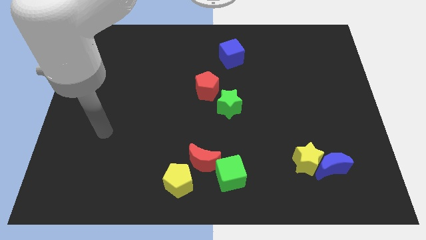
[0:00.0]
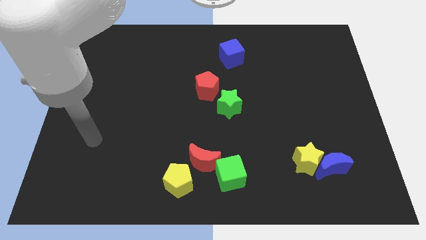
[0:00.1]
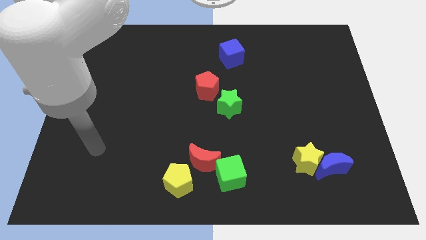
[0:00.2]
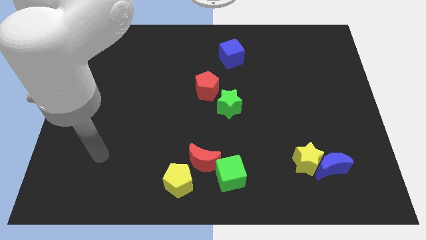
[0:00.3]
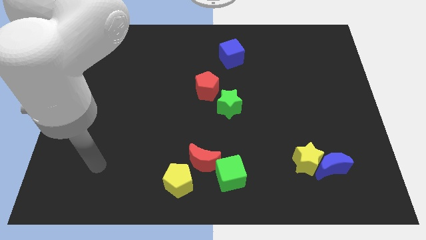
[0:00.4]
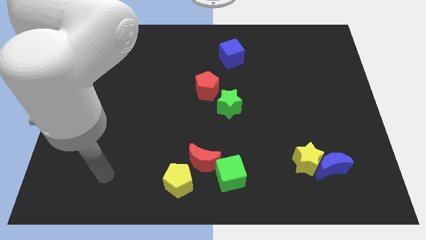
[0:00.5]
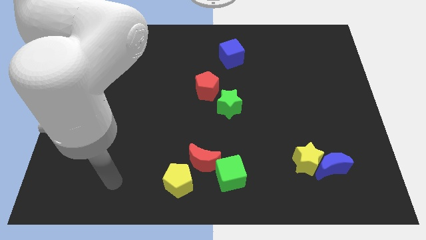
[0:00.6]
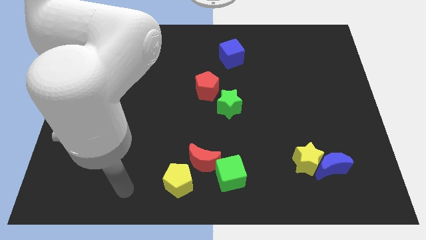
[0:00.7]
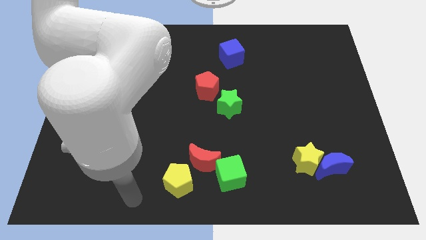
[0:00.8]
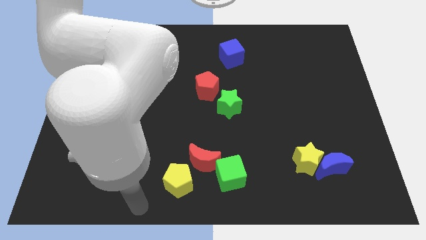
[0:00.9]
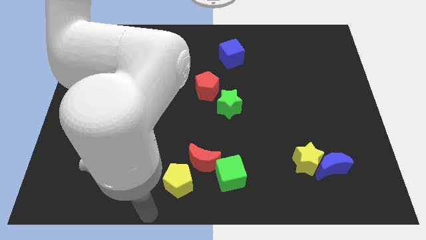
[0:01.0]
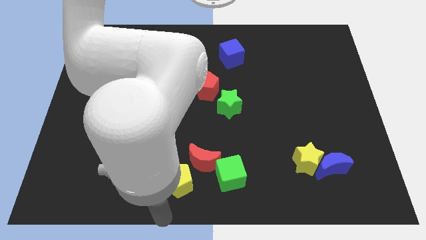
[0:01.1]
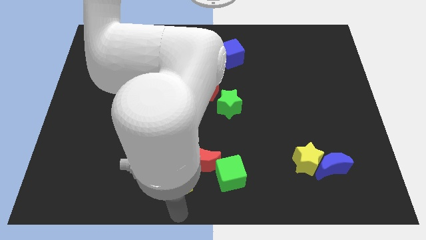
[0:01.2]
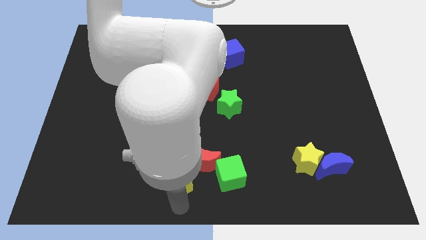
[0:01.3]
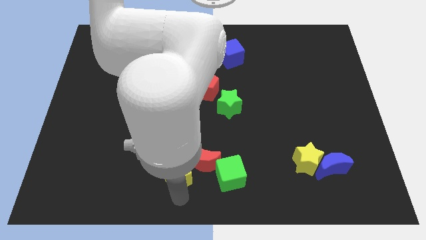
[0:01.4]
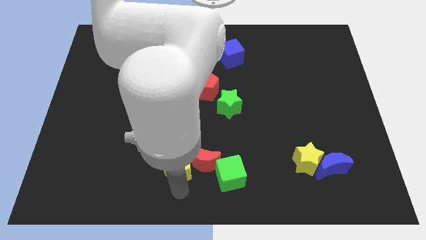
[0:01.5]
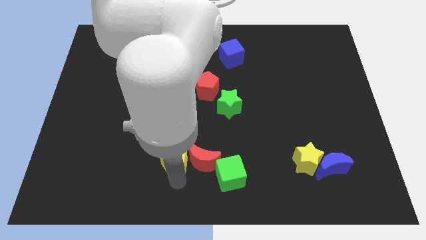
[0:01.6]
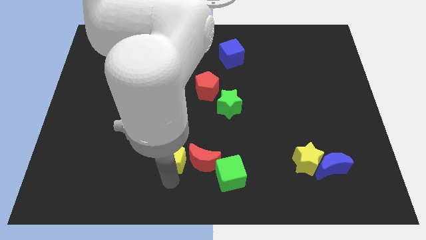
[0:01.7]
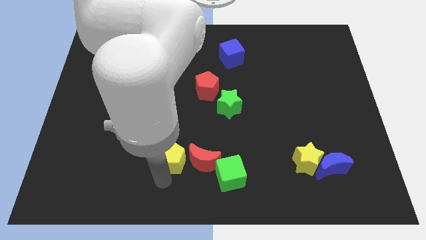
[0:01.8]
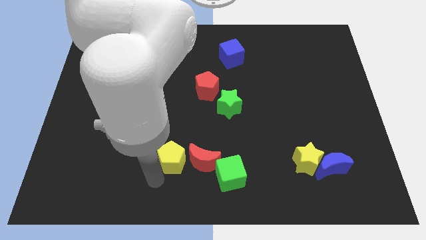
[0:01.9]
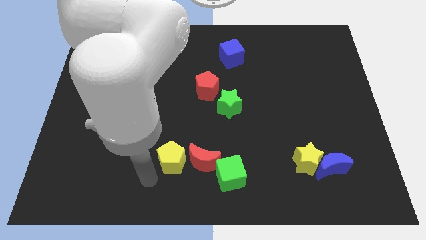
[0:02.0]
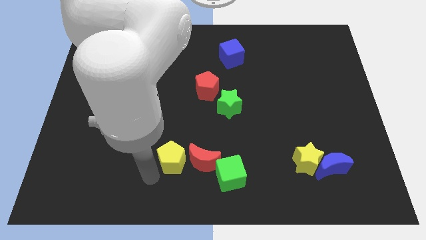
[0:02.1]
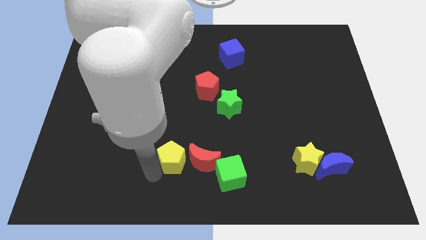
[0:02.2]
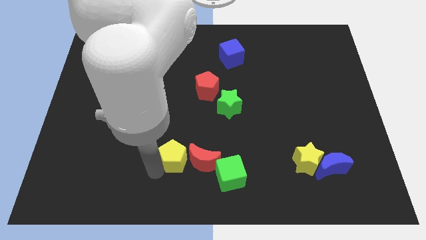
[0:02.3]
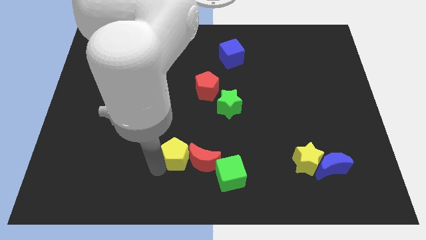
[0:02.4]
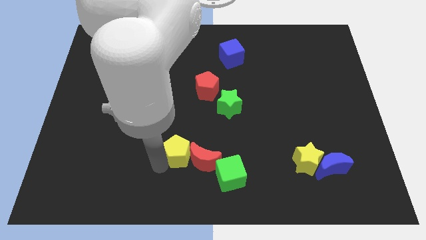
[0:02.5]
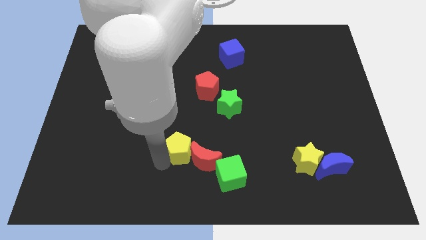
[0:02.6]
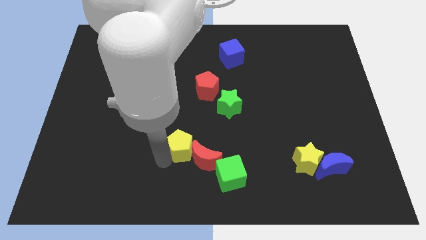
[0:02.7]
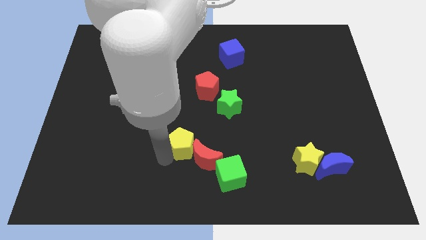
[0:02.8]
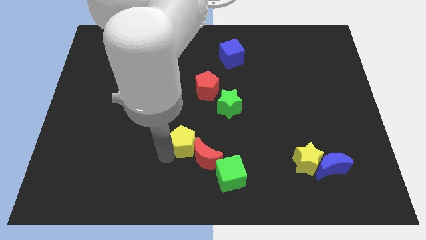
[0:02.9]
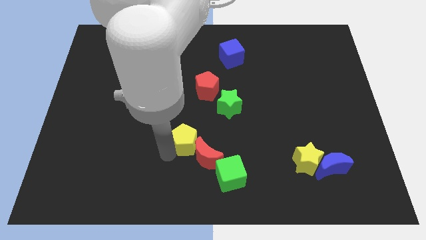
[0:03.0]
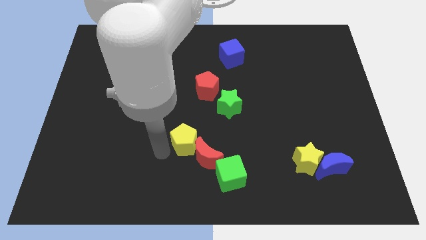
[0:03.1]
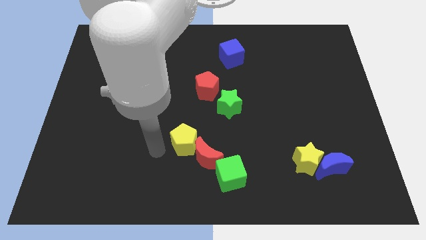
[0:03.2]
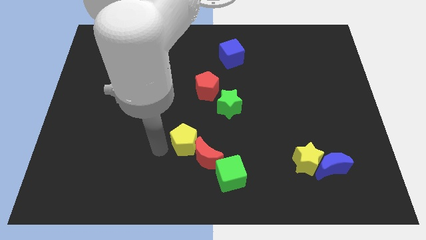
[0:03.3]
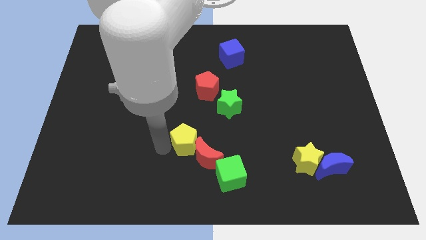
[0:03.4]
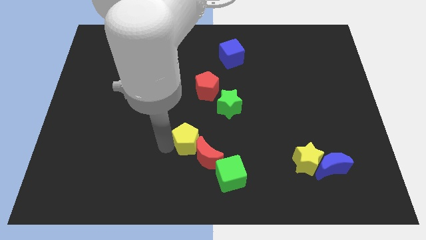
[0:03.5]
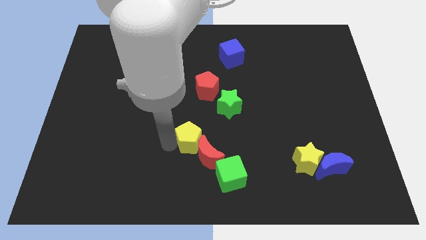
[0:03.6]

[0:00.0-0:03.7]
push the yellow pentagon up and then right slightly

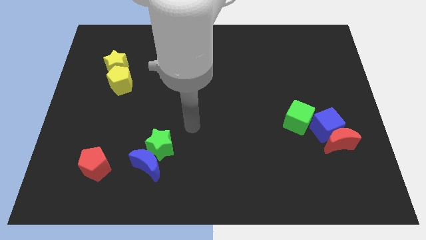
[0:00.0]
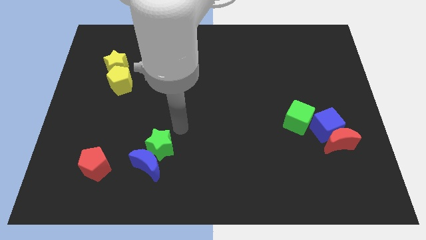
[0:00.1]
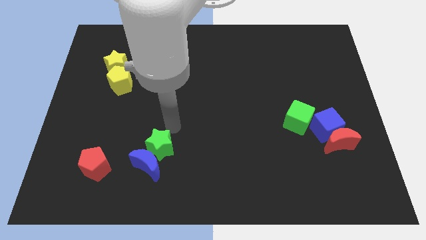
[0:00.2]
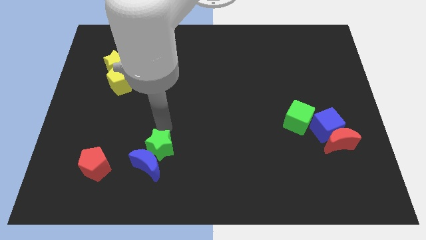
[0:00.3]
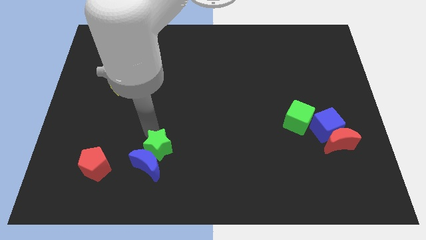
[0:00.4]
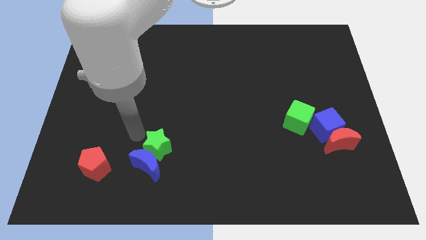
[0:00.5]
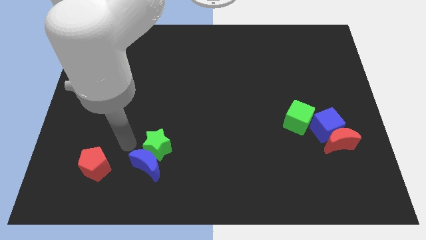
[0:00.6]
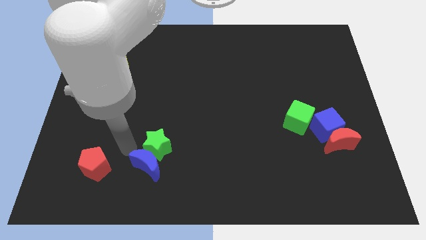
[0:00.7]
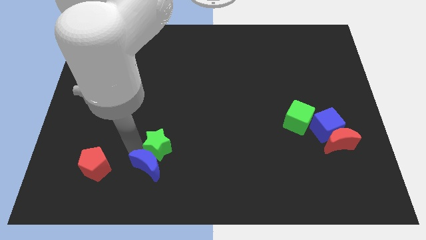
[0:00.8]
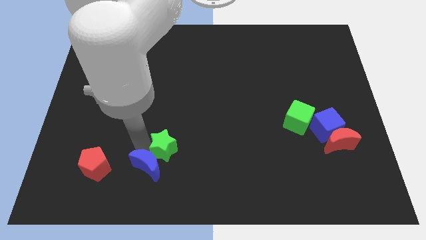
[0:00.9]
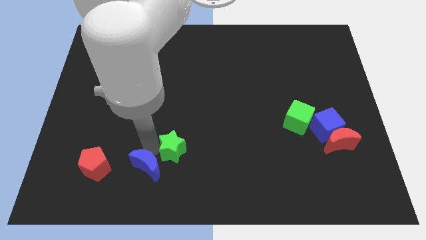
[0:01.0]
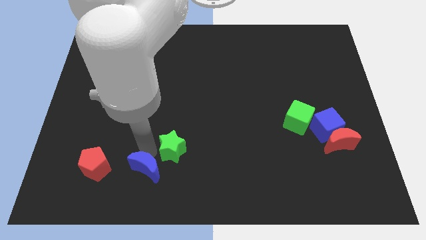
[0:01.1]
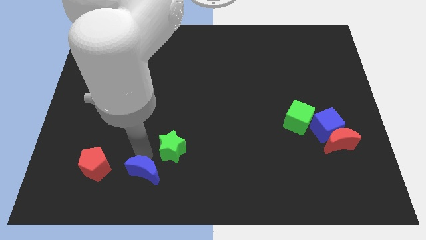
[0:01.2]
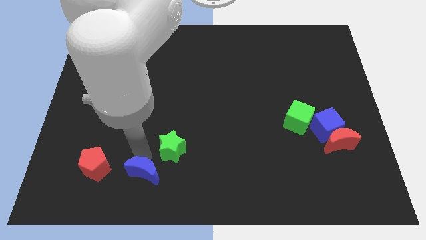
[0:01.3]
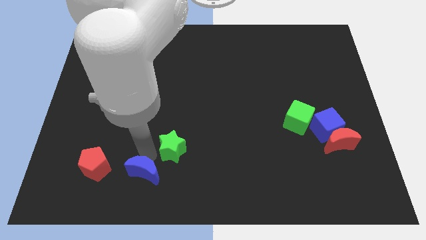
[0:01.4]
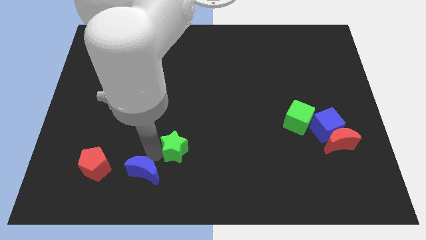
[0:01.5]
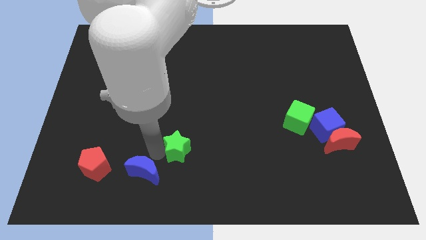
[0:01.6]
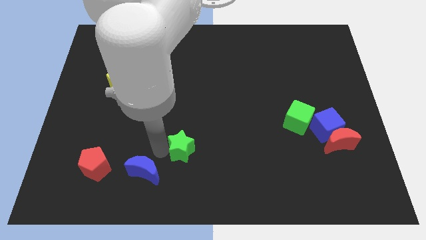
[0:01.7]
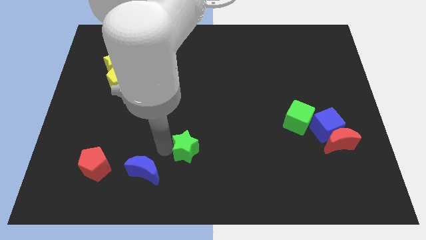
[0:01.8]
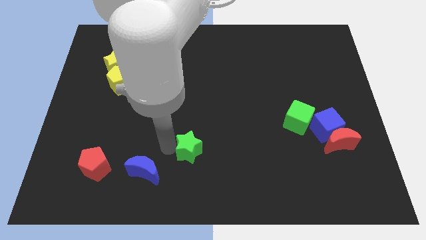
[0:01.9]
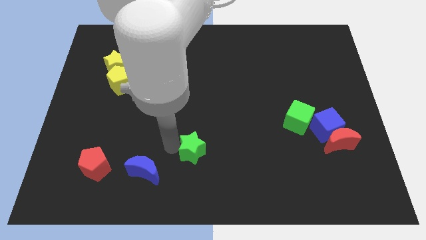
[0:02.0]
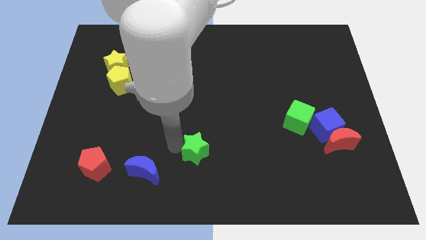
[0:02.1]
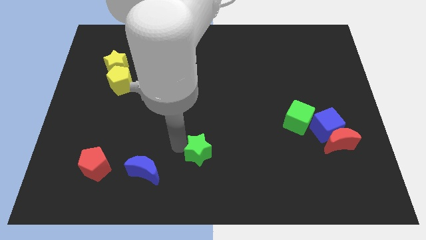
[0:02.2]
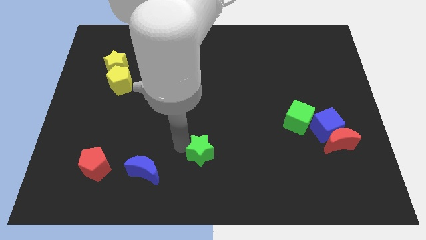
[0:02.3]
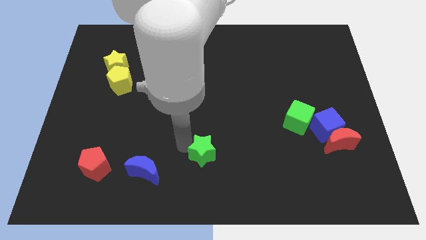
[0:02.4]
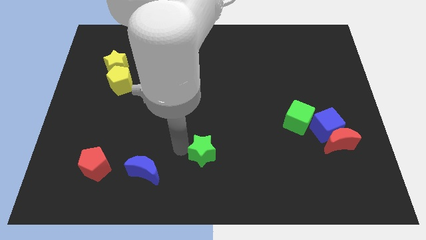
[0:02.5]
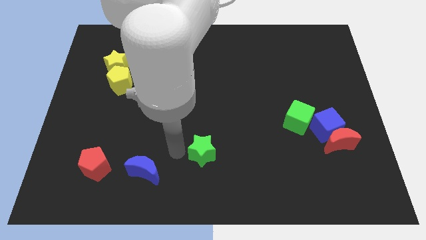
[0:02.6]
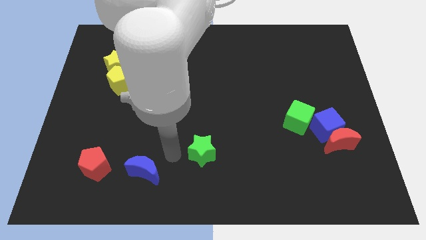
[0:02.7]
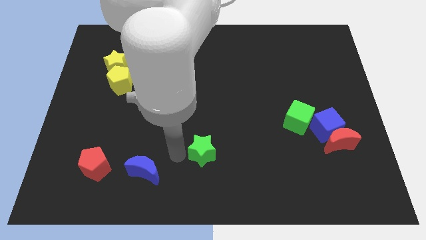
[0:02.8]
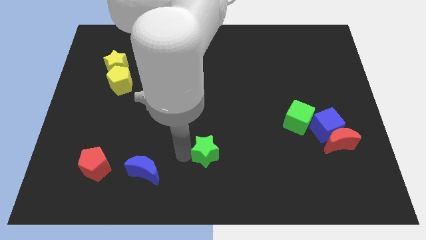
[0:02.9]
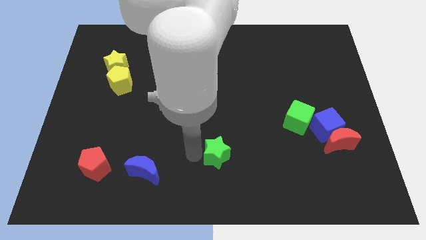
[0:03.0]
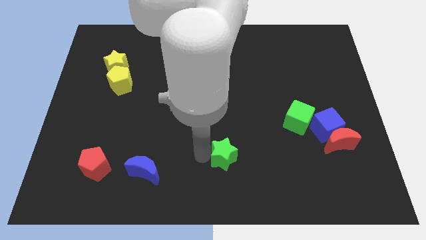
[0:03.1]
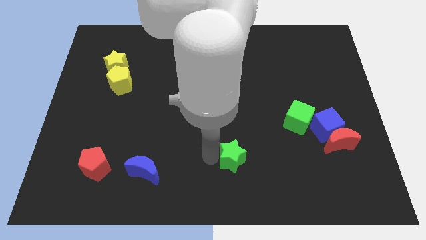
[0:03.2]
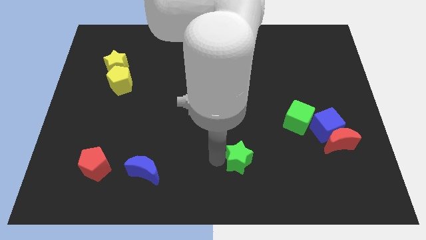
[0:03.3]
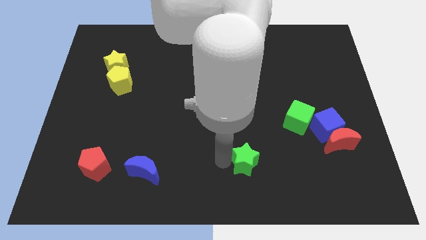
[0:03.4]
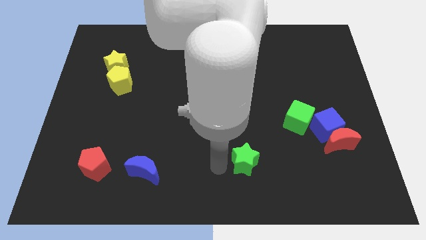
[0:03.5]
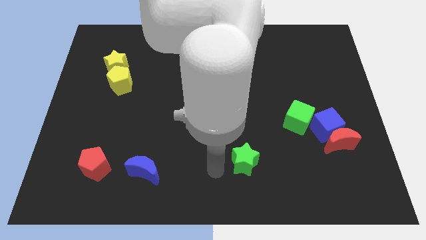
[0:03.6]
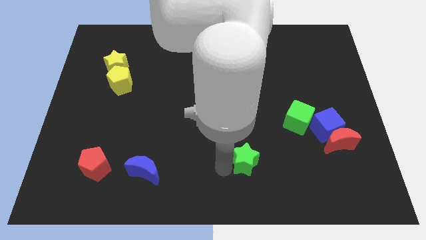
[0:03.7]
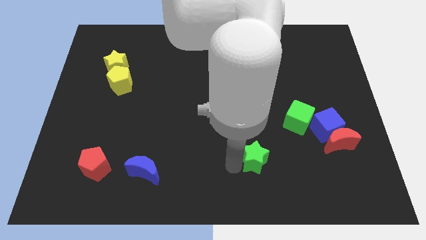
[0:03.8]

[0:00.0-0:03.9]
slide the green star to the right
